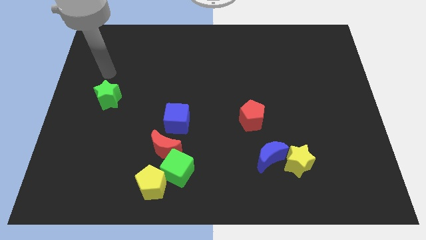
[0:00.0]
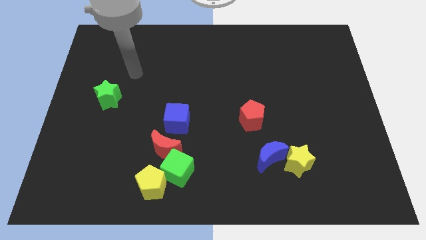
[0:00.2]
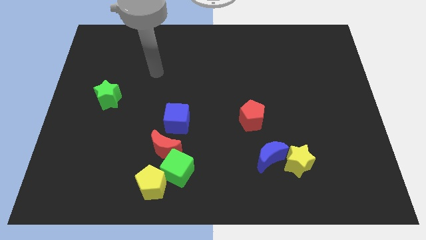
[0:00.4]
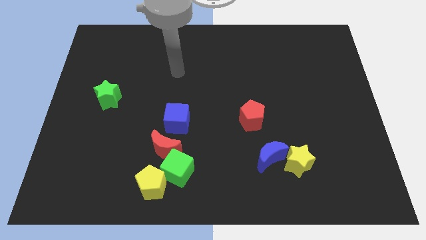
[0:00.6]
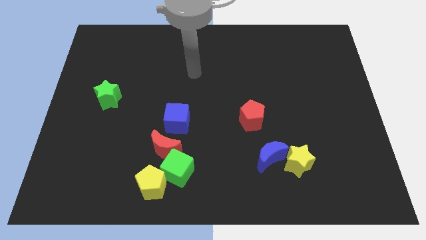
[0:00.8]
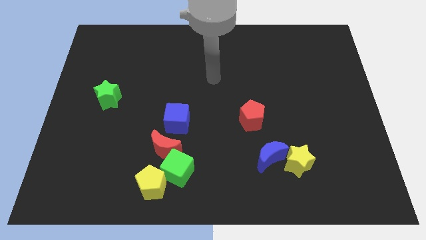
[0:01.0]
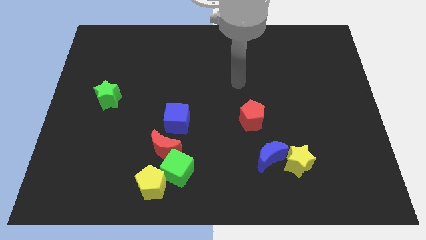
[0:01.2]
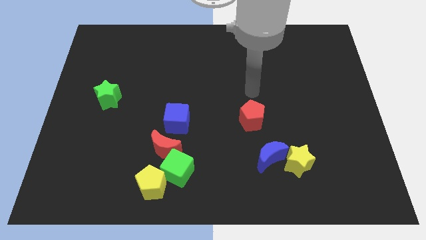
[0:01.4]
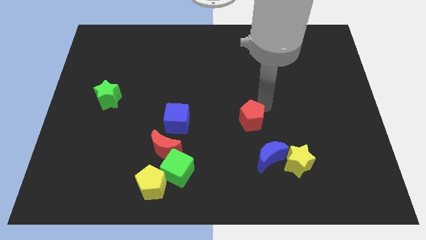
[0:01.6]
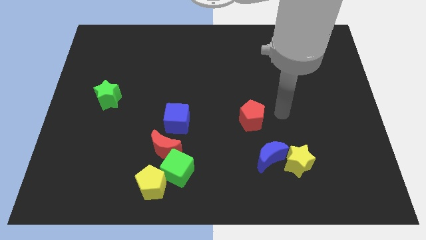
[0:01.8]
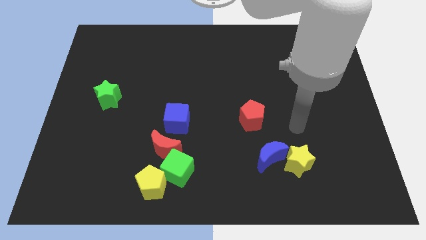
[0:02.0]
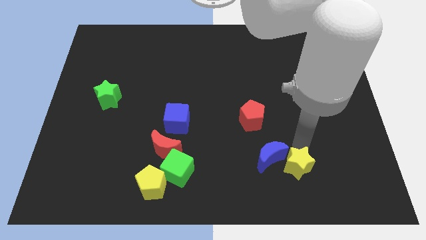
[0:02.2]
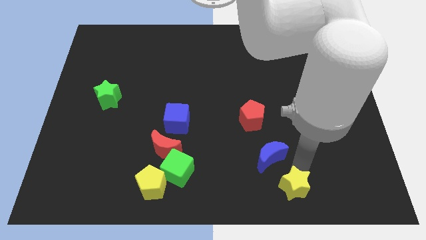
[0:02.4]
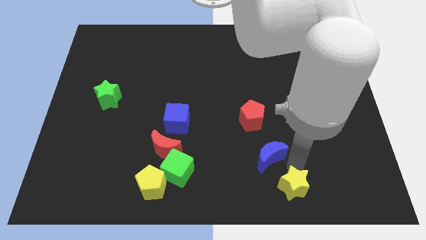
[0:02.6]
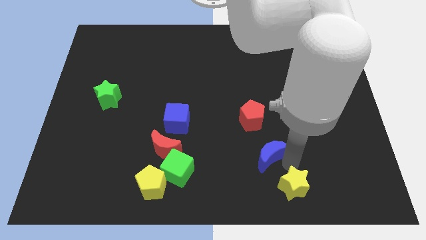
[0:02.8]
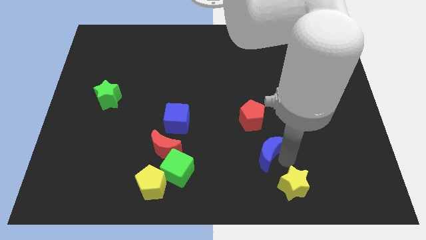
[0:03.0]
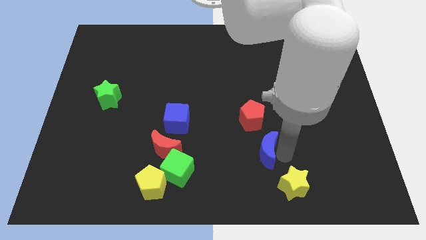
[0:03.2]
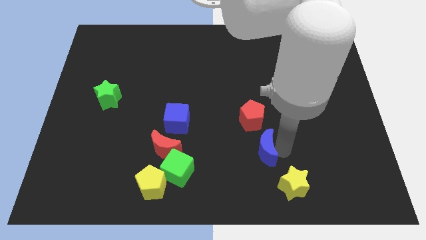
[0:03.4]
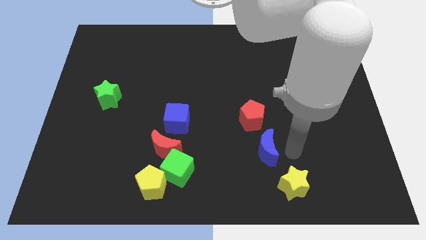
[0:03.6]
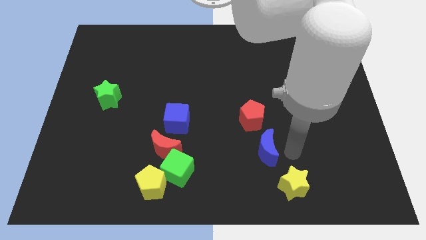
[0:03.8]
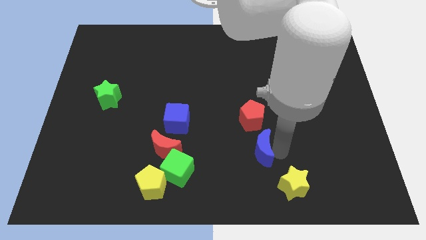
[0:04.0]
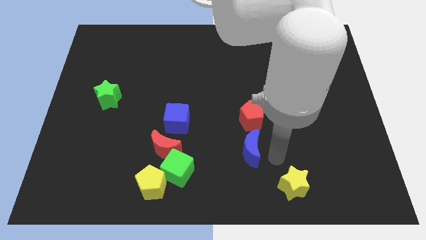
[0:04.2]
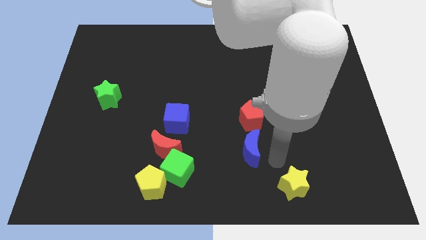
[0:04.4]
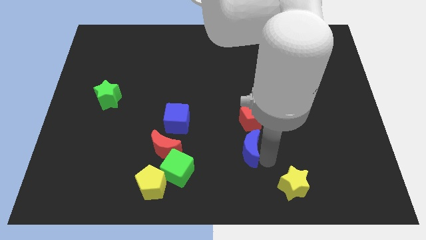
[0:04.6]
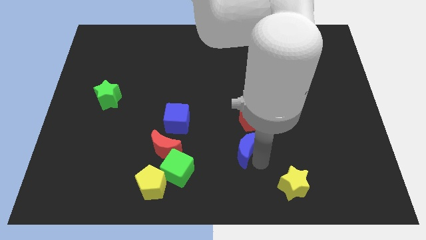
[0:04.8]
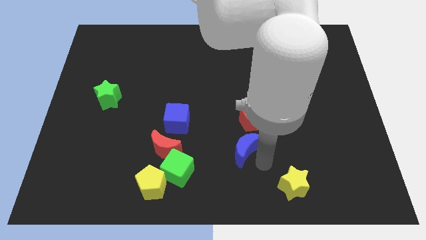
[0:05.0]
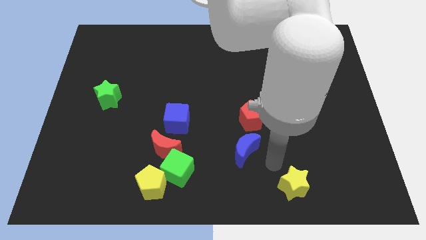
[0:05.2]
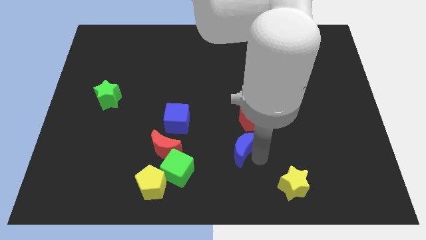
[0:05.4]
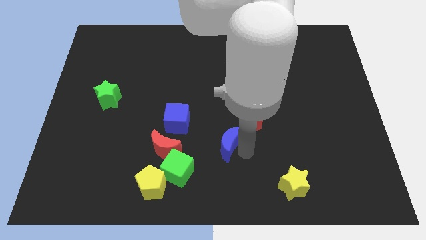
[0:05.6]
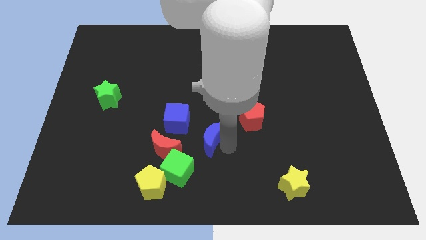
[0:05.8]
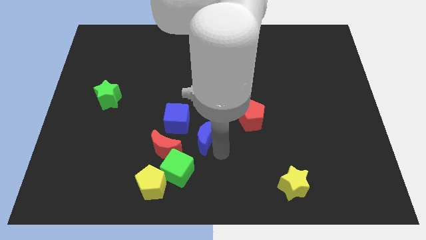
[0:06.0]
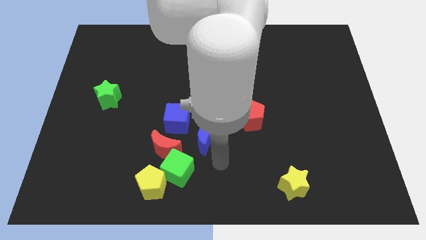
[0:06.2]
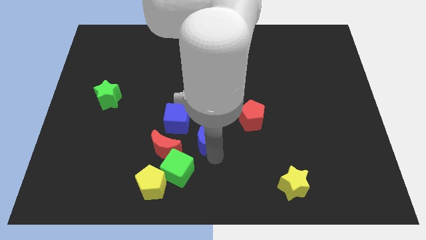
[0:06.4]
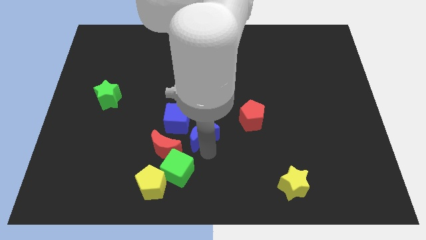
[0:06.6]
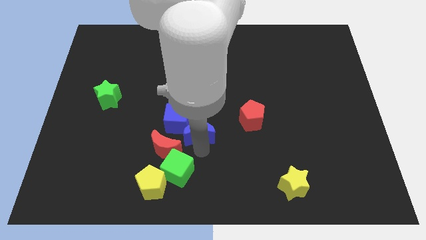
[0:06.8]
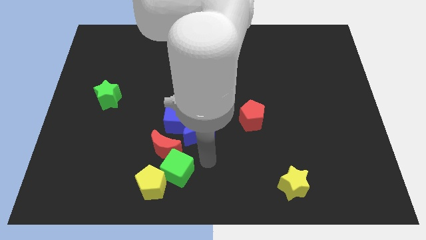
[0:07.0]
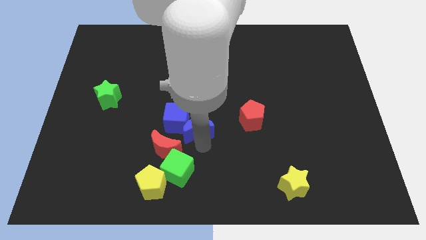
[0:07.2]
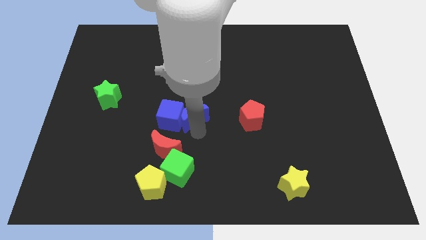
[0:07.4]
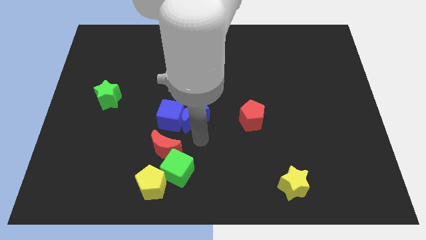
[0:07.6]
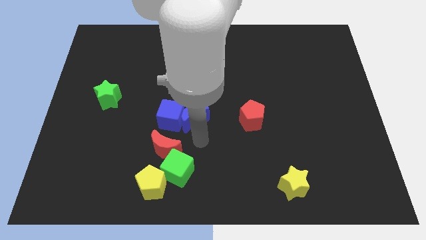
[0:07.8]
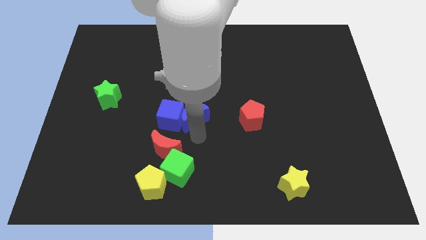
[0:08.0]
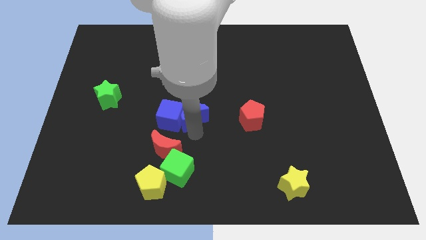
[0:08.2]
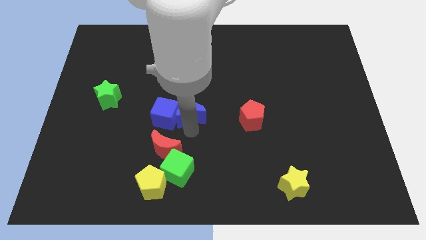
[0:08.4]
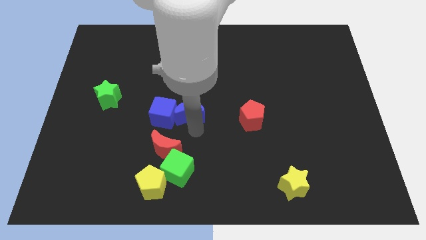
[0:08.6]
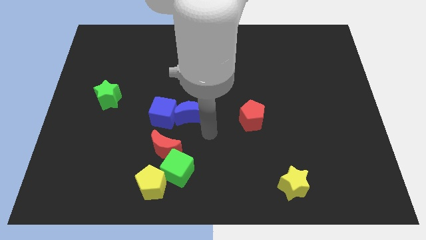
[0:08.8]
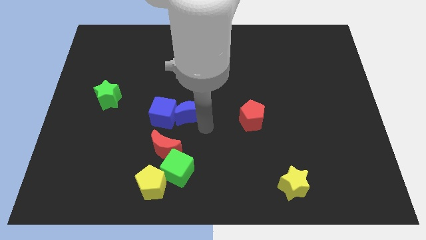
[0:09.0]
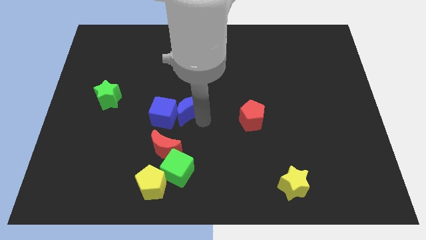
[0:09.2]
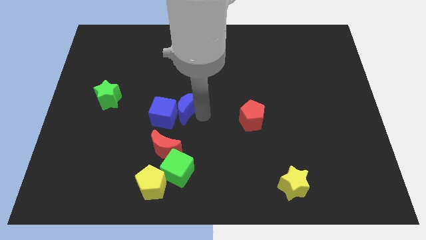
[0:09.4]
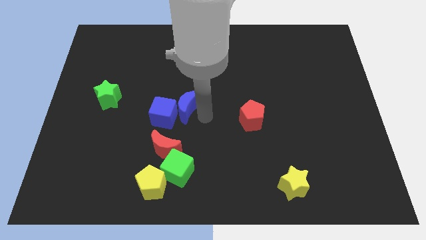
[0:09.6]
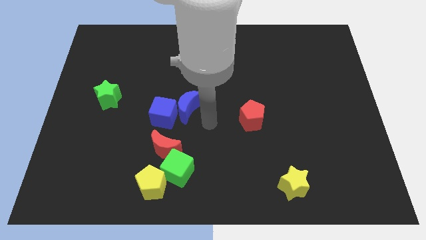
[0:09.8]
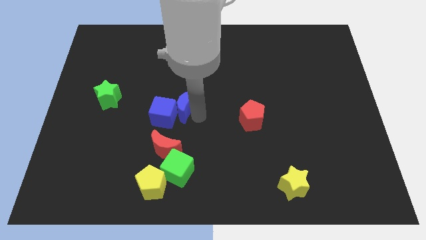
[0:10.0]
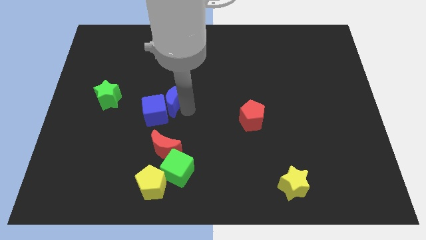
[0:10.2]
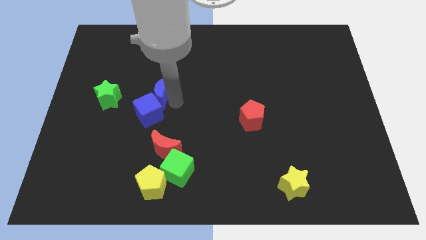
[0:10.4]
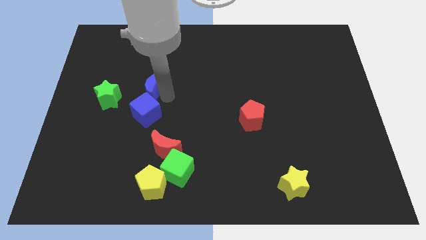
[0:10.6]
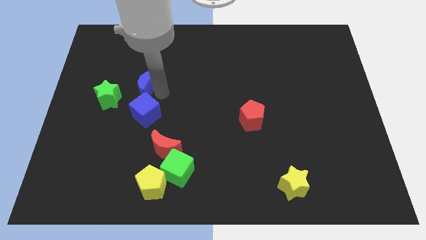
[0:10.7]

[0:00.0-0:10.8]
put the blue moon to the top right of the green star

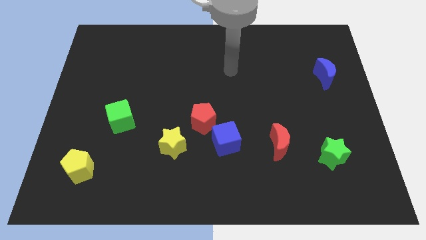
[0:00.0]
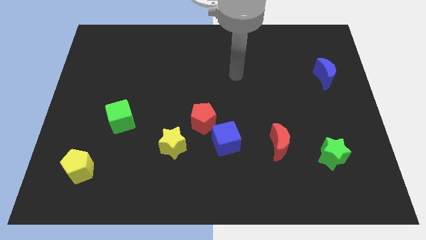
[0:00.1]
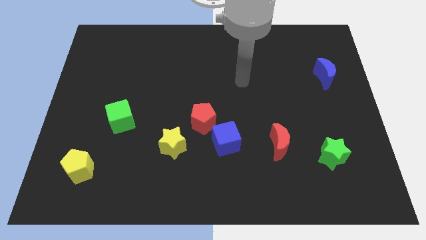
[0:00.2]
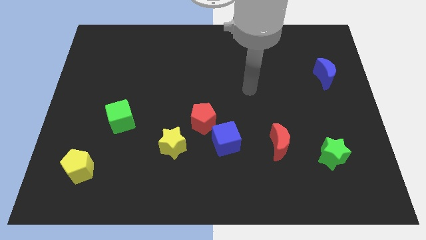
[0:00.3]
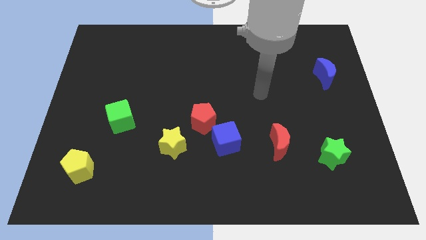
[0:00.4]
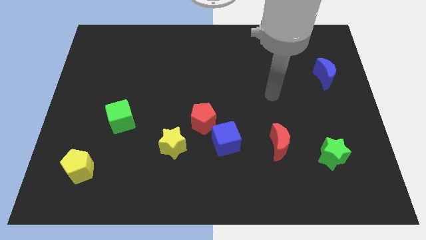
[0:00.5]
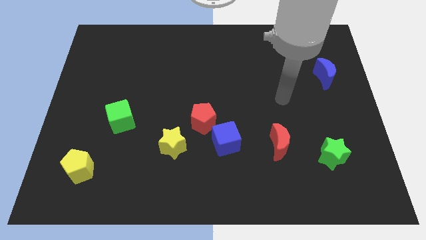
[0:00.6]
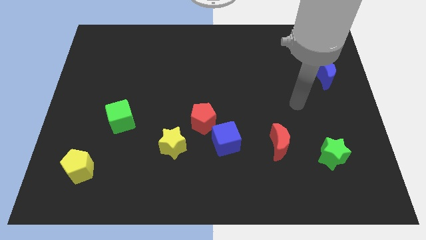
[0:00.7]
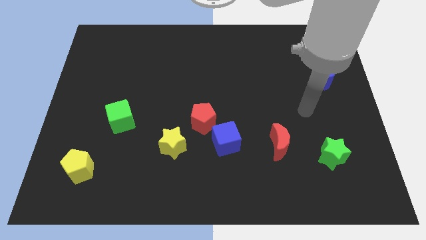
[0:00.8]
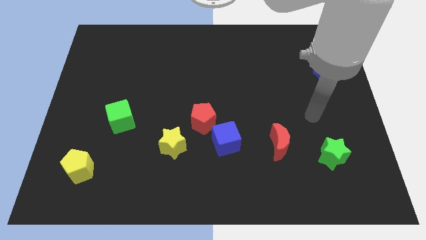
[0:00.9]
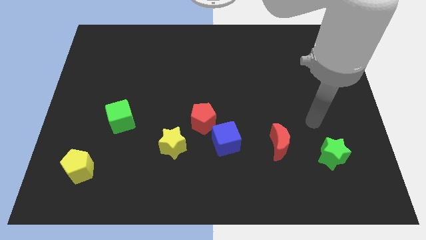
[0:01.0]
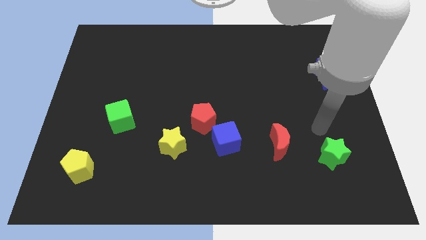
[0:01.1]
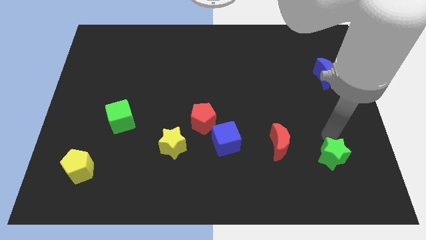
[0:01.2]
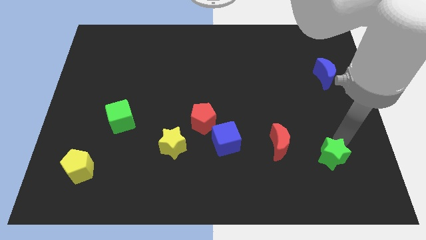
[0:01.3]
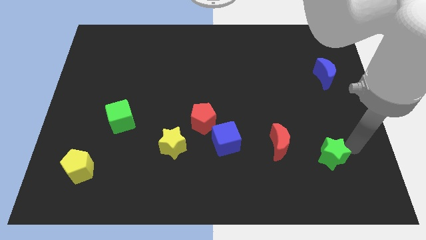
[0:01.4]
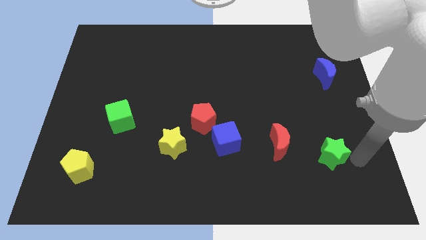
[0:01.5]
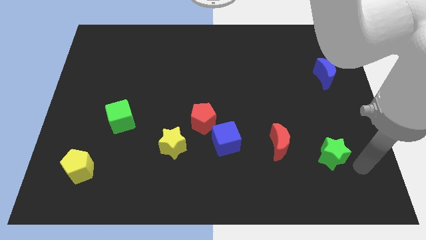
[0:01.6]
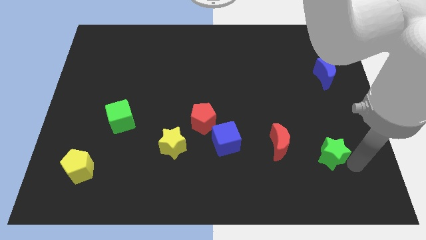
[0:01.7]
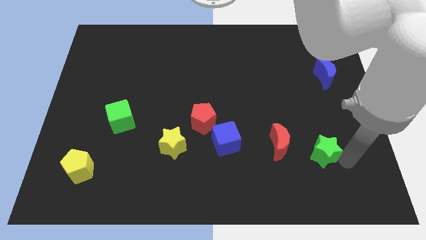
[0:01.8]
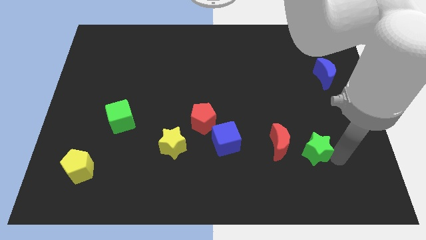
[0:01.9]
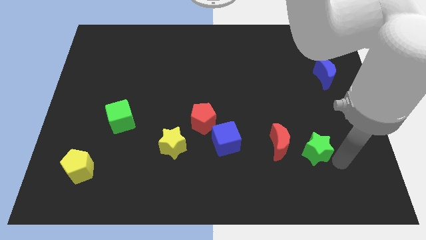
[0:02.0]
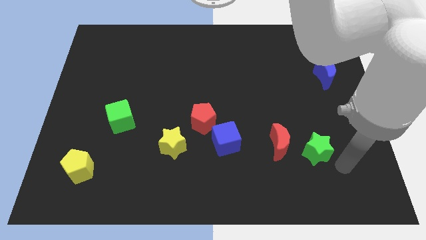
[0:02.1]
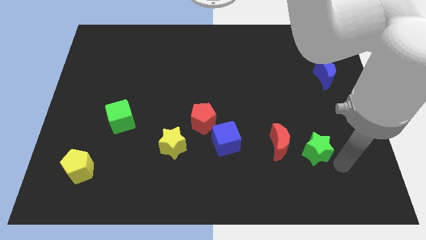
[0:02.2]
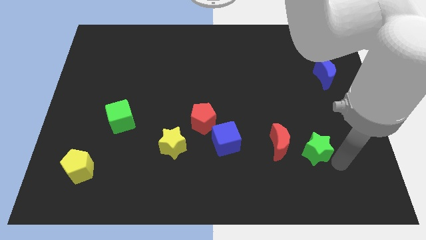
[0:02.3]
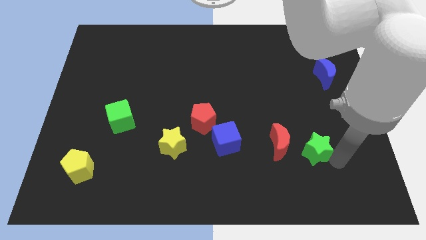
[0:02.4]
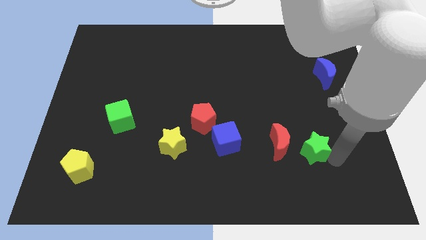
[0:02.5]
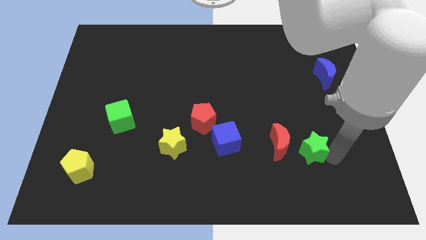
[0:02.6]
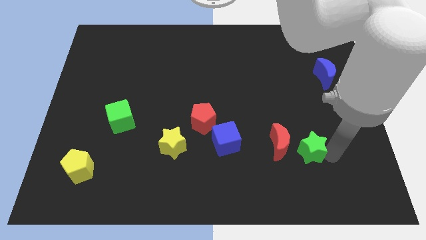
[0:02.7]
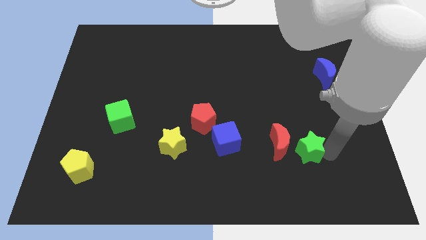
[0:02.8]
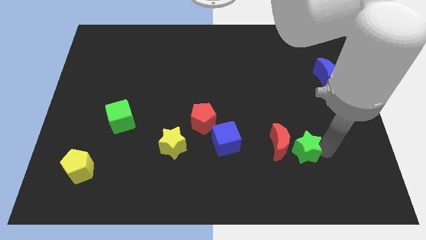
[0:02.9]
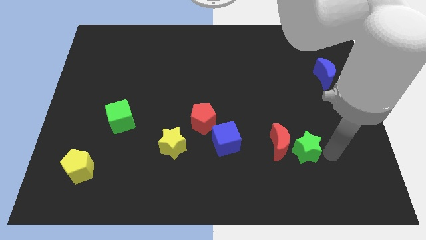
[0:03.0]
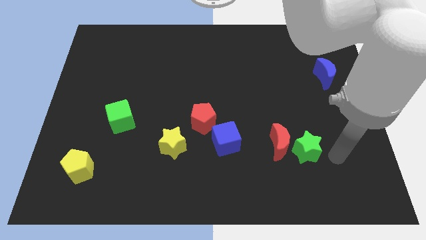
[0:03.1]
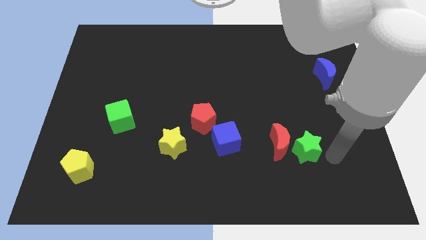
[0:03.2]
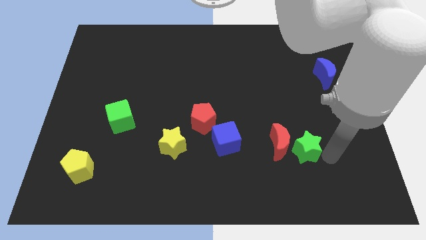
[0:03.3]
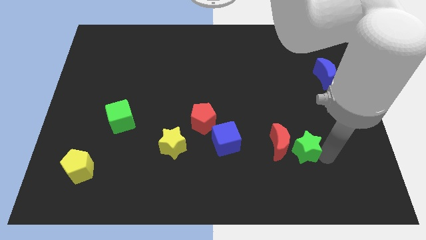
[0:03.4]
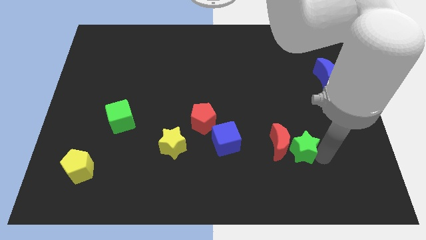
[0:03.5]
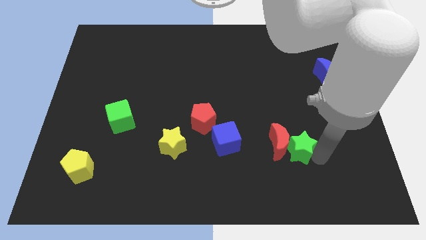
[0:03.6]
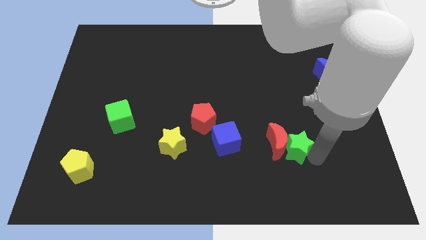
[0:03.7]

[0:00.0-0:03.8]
push the green star to the right of the blue cube
